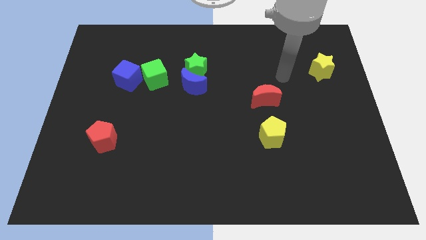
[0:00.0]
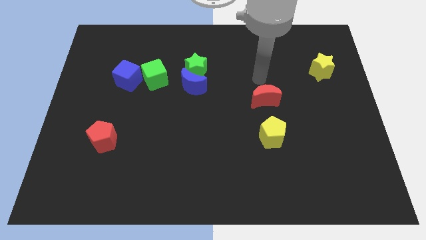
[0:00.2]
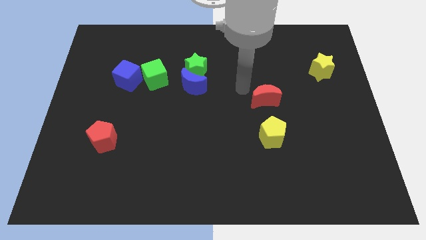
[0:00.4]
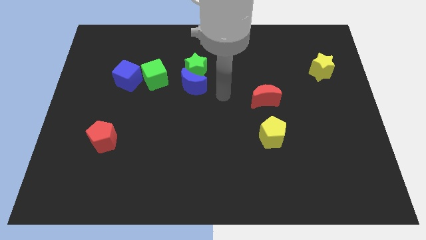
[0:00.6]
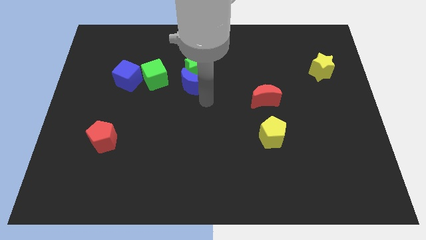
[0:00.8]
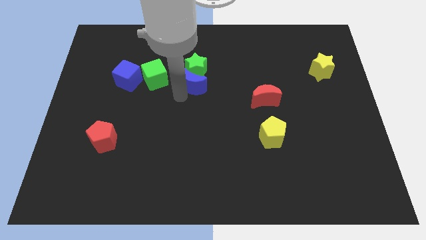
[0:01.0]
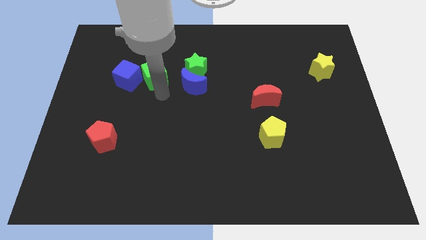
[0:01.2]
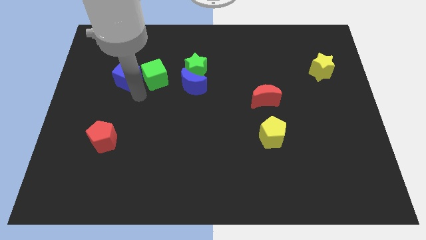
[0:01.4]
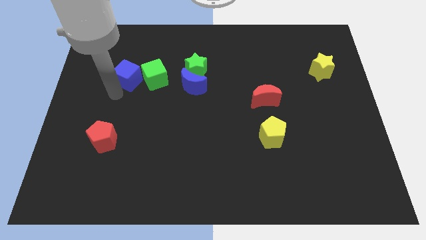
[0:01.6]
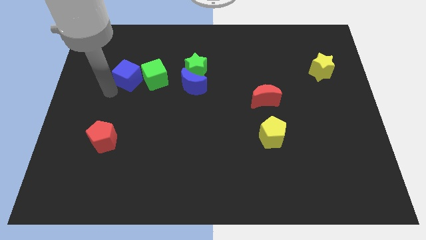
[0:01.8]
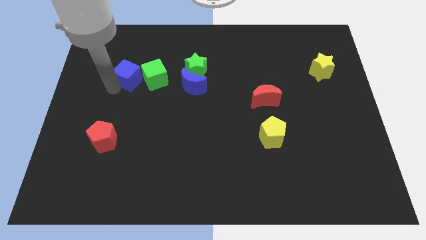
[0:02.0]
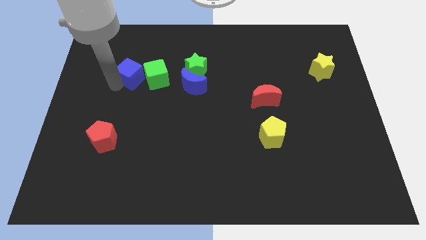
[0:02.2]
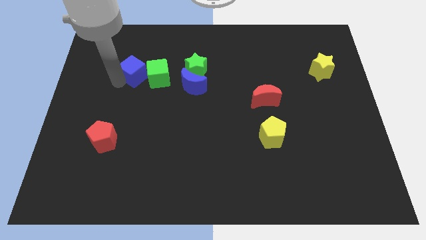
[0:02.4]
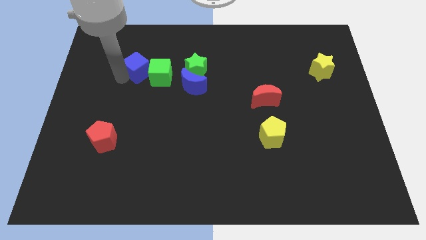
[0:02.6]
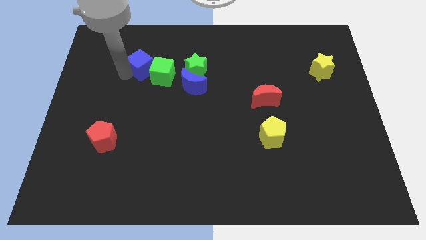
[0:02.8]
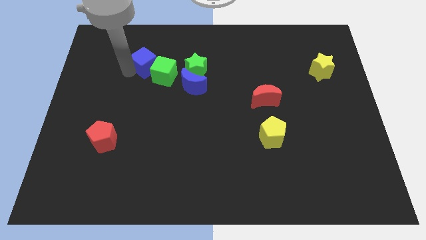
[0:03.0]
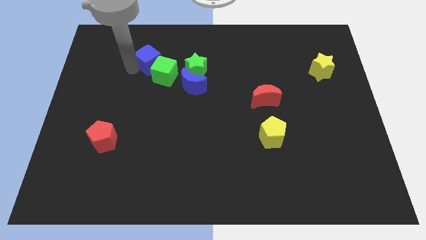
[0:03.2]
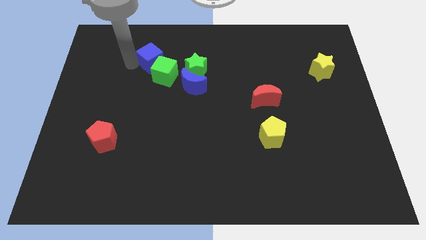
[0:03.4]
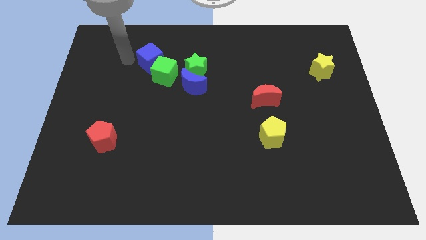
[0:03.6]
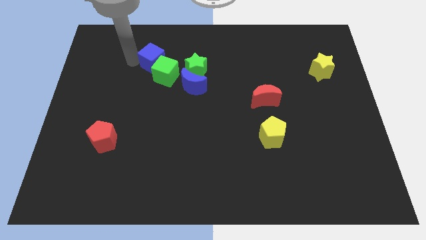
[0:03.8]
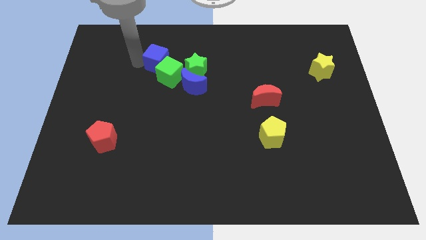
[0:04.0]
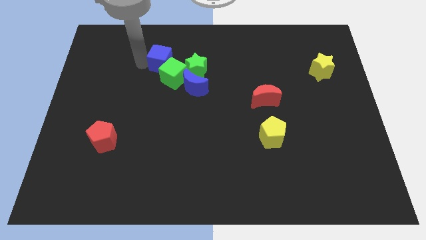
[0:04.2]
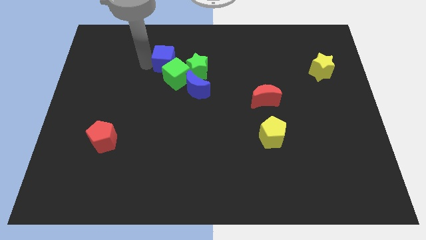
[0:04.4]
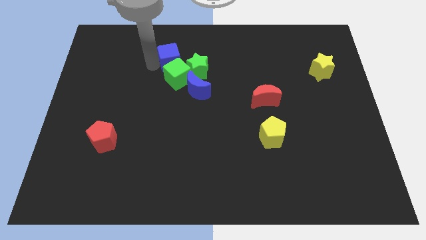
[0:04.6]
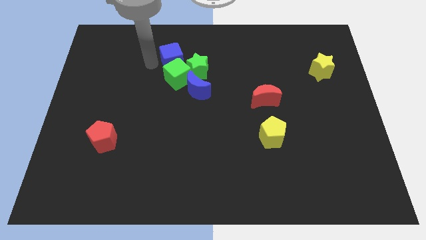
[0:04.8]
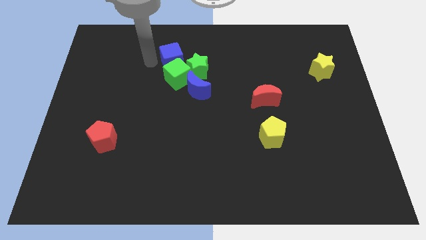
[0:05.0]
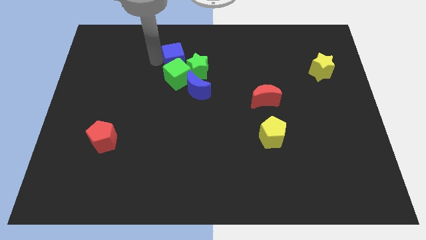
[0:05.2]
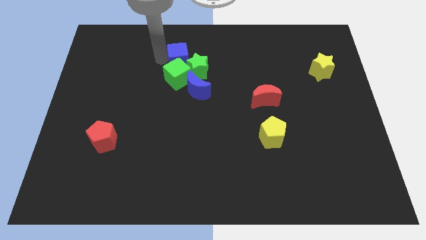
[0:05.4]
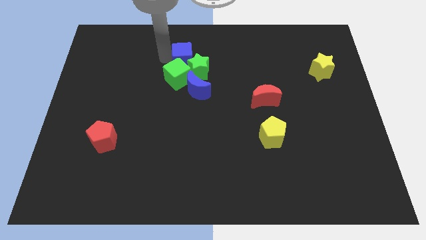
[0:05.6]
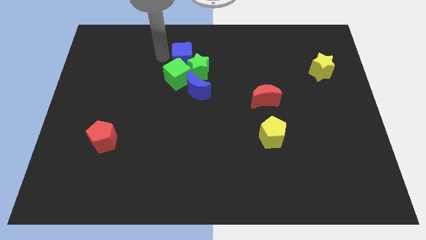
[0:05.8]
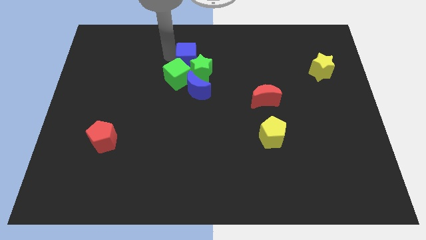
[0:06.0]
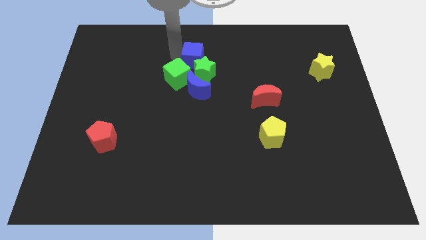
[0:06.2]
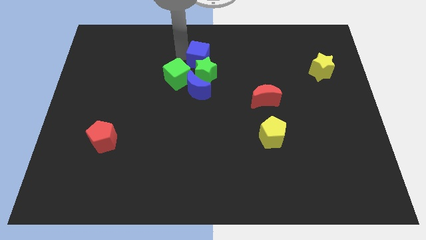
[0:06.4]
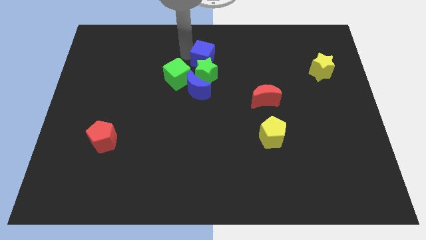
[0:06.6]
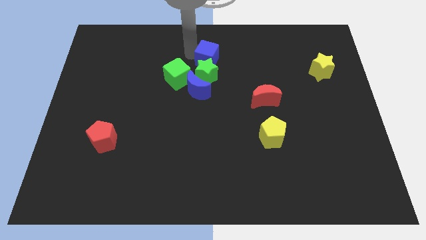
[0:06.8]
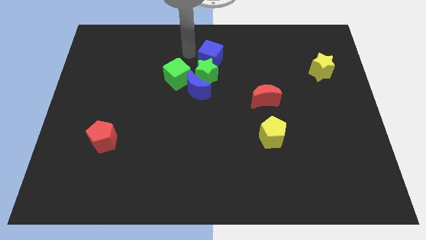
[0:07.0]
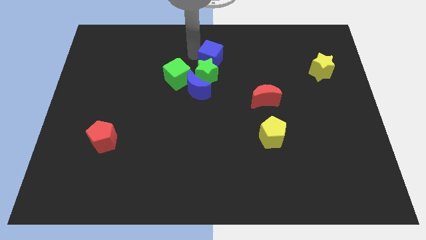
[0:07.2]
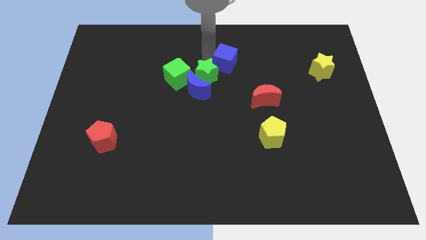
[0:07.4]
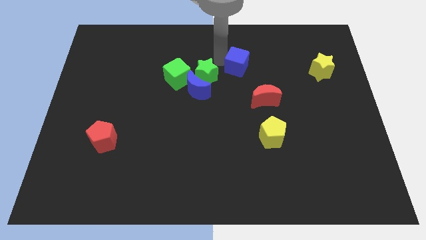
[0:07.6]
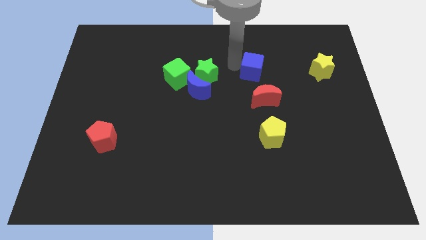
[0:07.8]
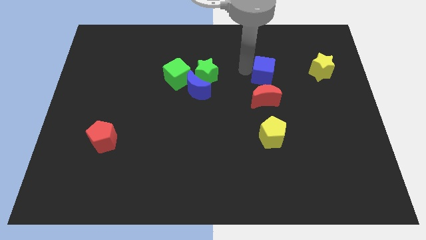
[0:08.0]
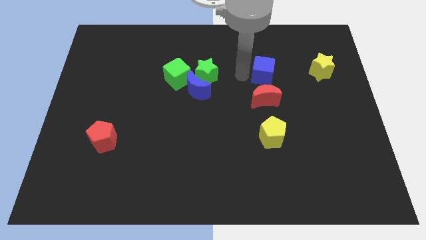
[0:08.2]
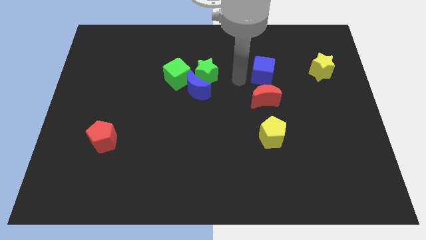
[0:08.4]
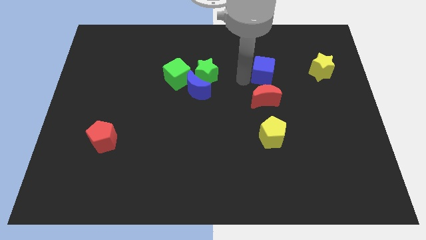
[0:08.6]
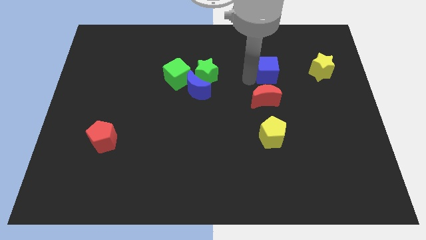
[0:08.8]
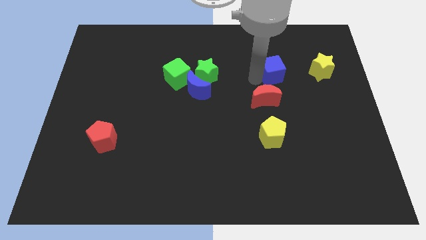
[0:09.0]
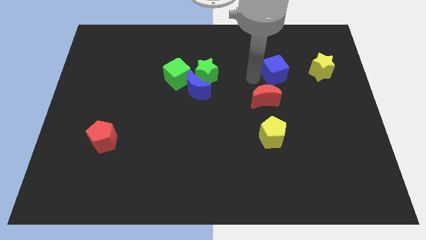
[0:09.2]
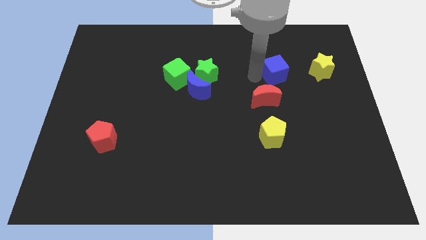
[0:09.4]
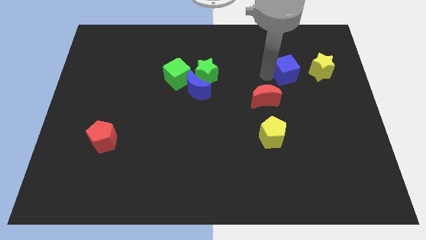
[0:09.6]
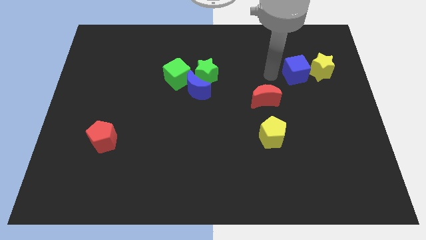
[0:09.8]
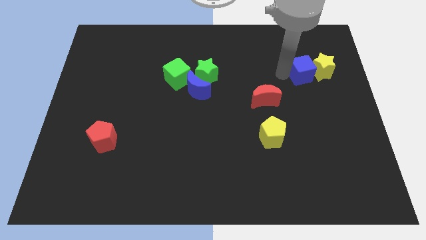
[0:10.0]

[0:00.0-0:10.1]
put the blue cube next to the yellow star

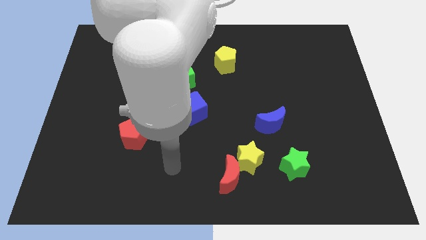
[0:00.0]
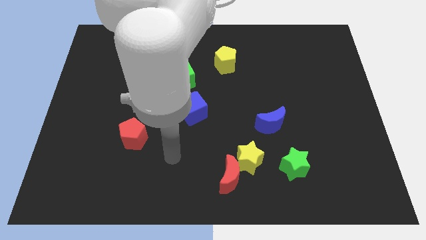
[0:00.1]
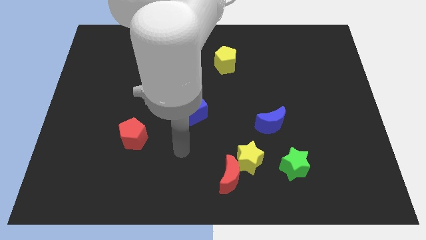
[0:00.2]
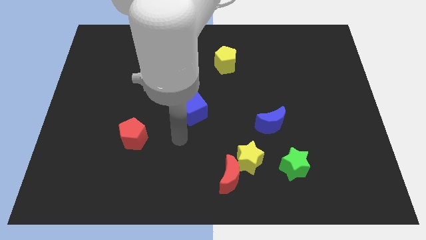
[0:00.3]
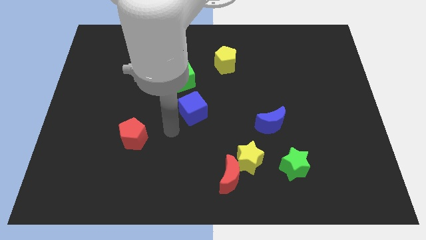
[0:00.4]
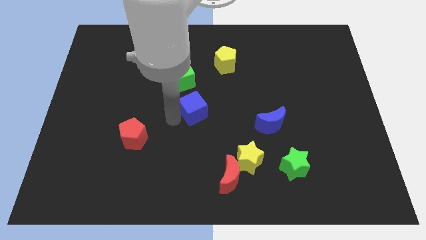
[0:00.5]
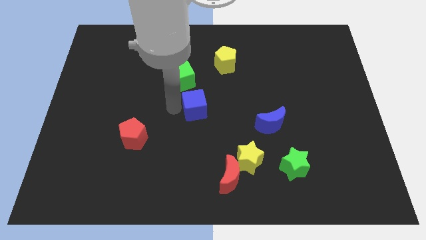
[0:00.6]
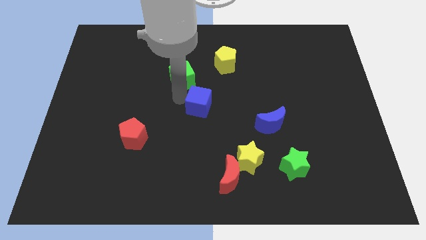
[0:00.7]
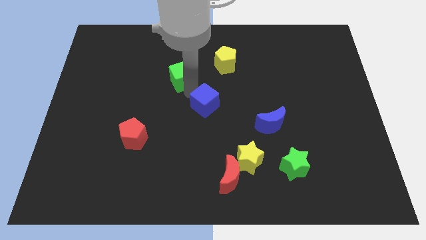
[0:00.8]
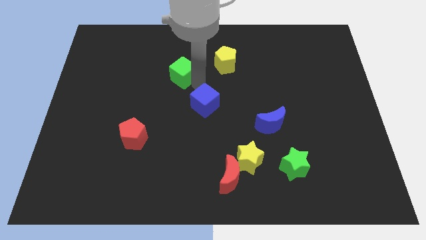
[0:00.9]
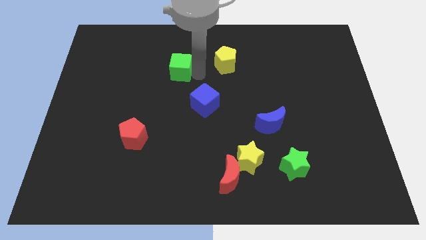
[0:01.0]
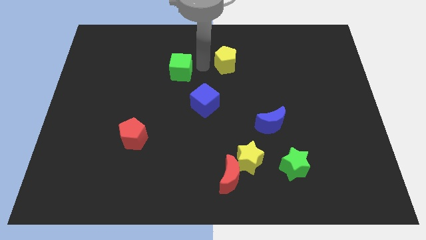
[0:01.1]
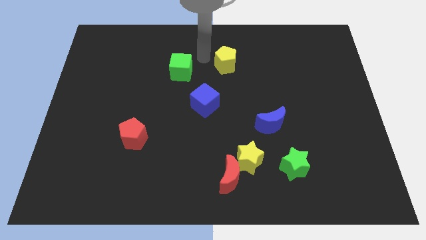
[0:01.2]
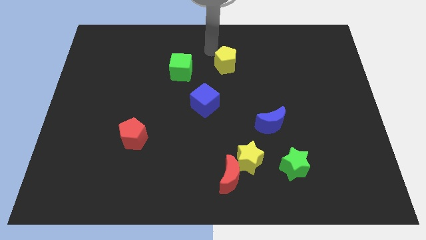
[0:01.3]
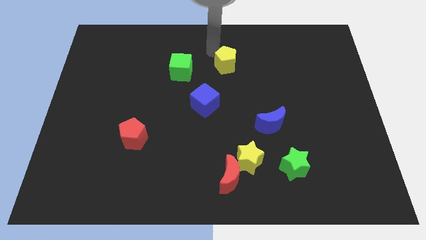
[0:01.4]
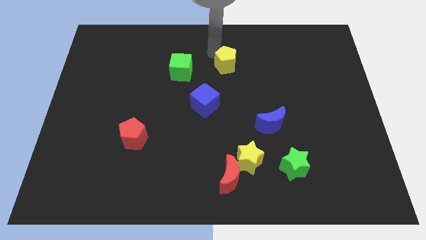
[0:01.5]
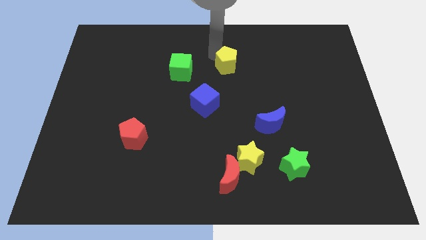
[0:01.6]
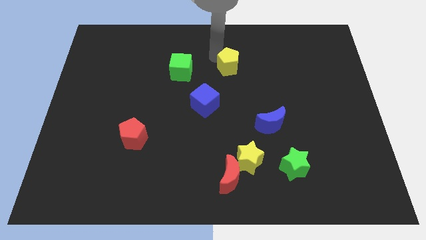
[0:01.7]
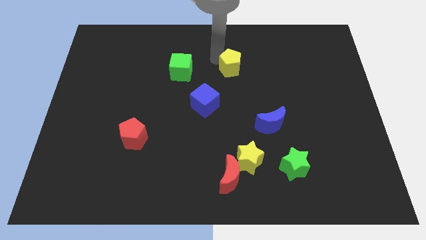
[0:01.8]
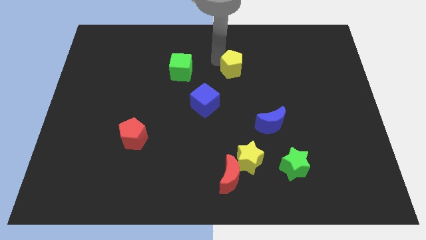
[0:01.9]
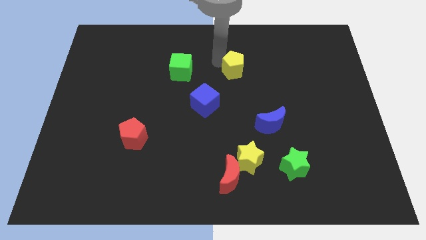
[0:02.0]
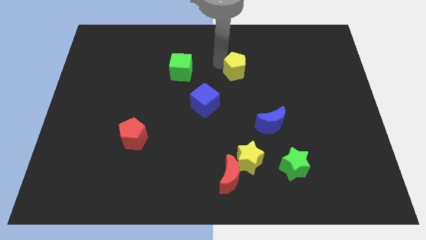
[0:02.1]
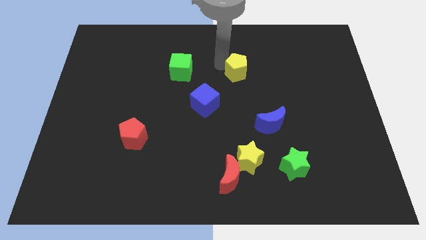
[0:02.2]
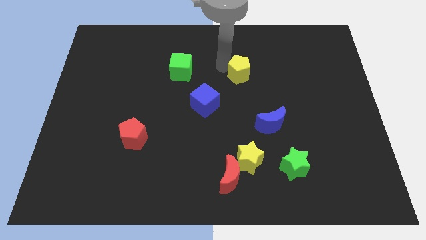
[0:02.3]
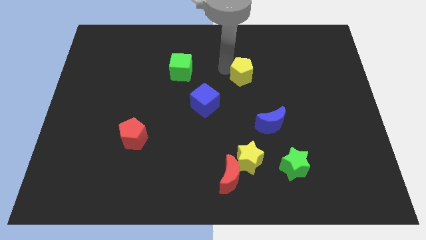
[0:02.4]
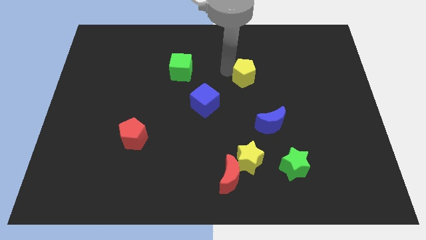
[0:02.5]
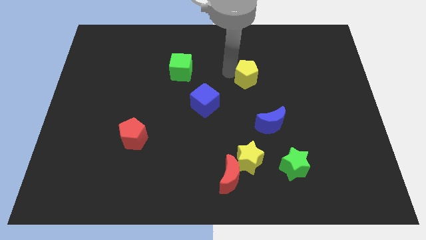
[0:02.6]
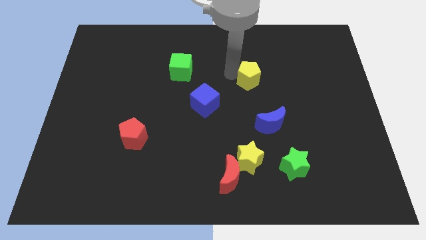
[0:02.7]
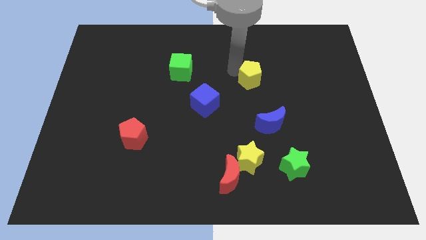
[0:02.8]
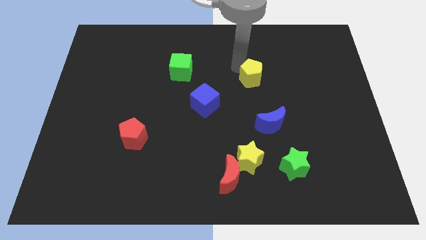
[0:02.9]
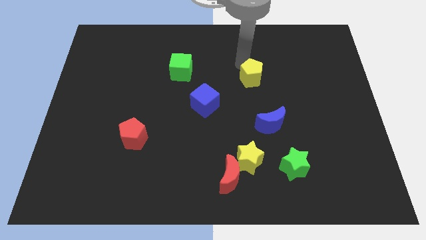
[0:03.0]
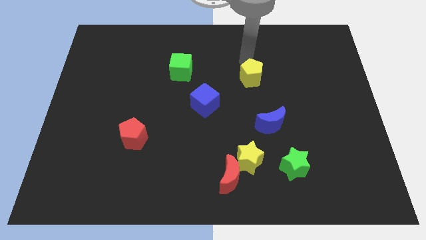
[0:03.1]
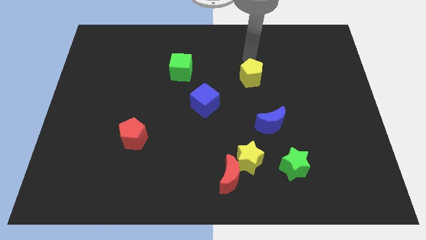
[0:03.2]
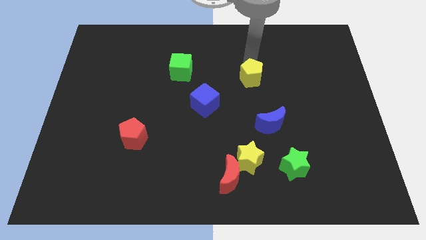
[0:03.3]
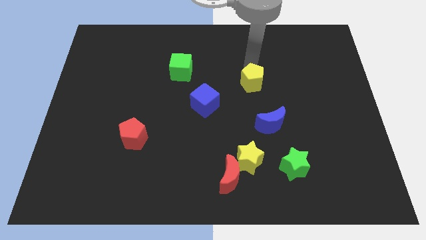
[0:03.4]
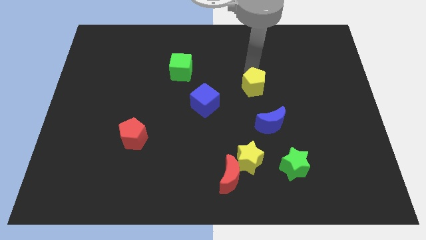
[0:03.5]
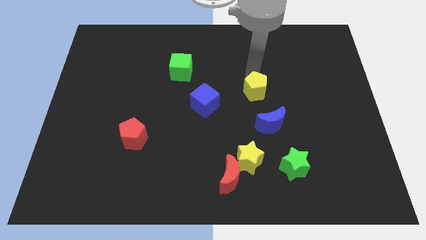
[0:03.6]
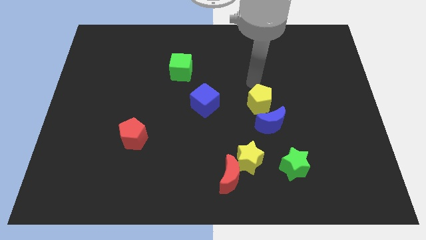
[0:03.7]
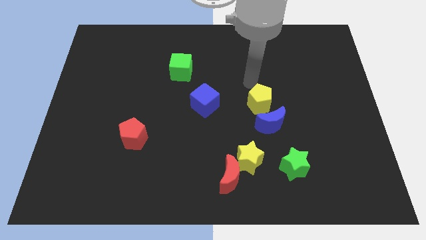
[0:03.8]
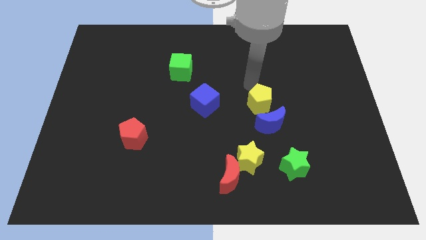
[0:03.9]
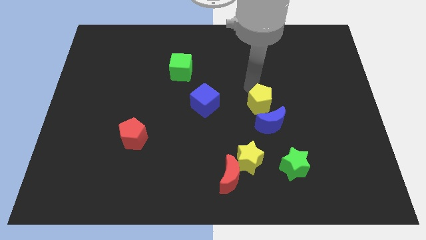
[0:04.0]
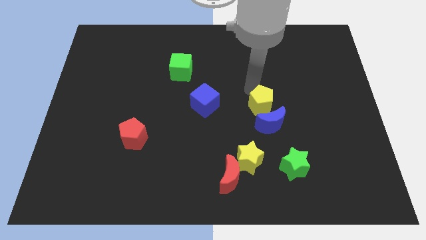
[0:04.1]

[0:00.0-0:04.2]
push the yellow pentagon towards the blue moon
